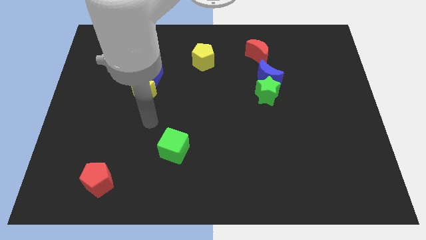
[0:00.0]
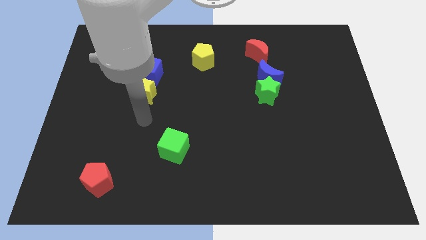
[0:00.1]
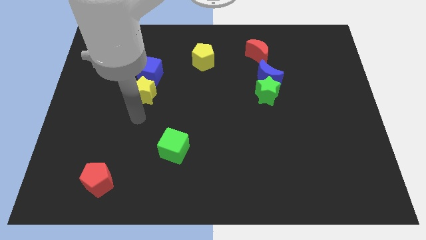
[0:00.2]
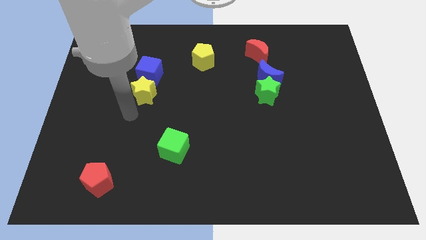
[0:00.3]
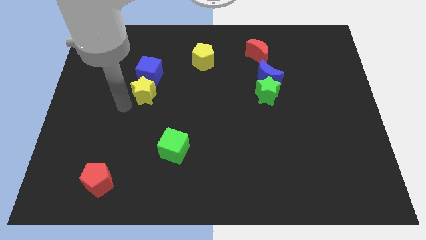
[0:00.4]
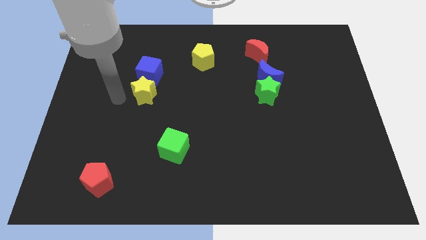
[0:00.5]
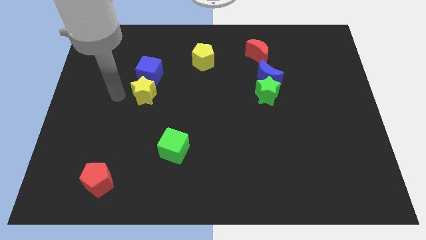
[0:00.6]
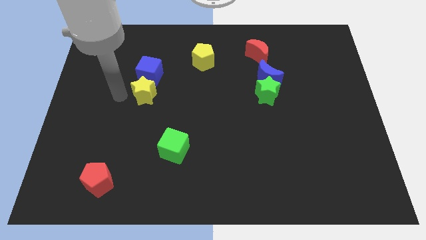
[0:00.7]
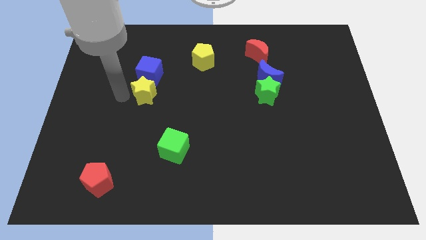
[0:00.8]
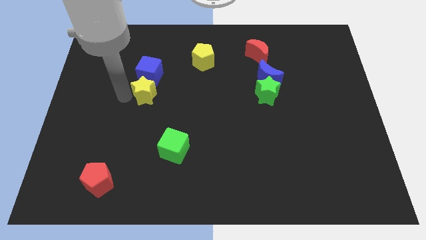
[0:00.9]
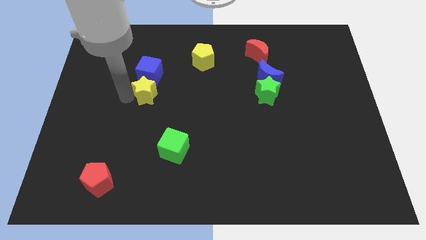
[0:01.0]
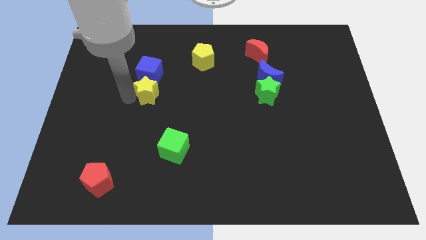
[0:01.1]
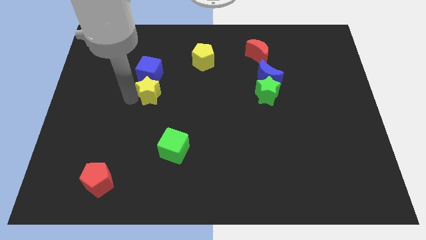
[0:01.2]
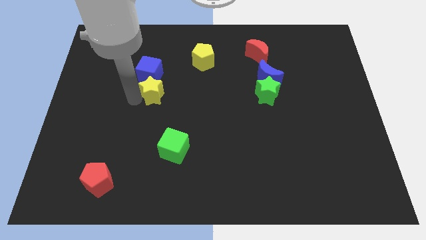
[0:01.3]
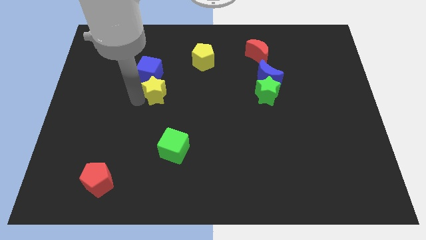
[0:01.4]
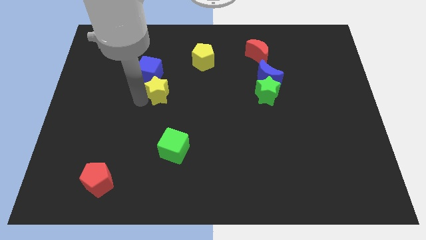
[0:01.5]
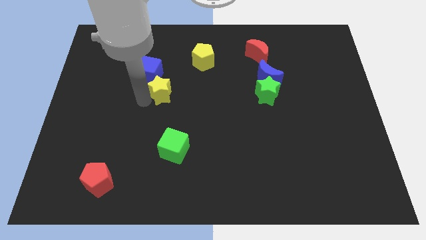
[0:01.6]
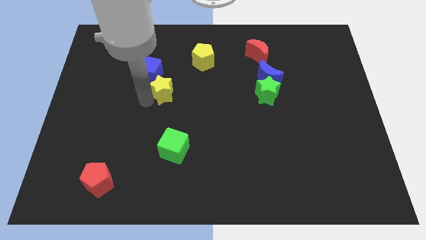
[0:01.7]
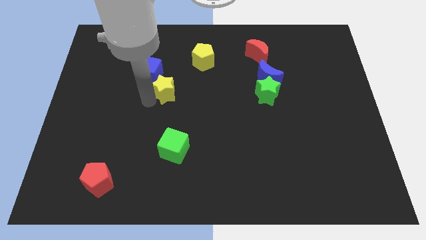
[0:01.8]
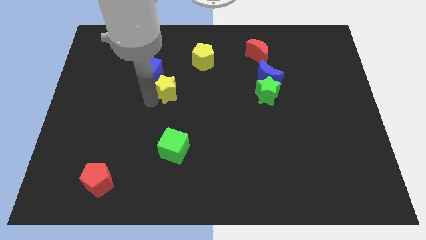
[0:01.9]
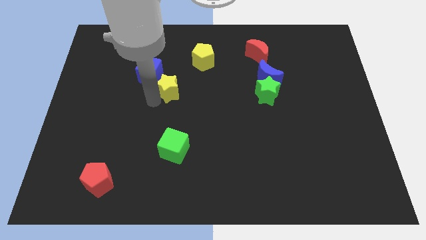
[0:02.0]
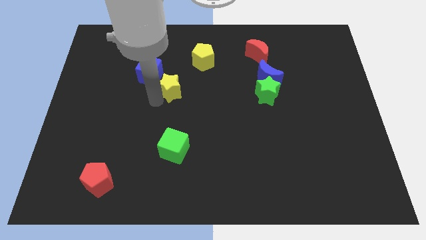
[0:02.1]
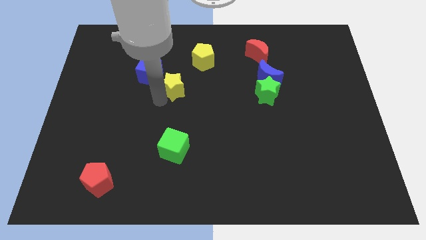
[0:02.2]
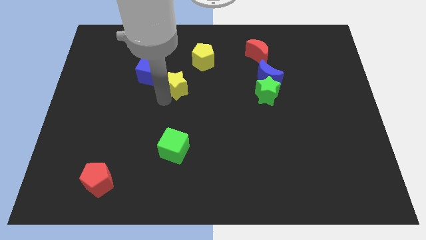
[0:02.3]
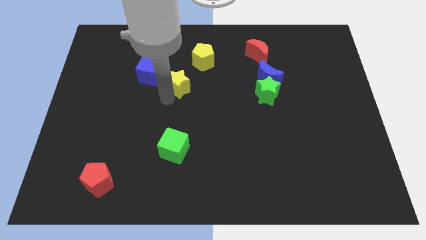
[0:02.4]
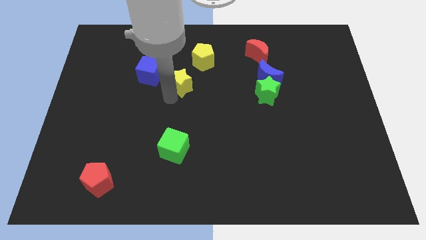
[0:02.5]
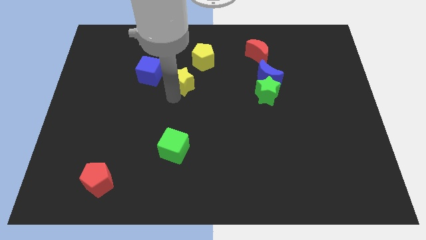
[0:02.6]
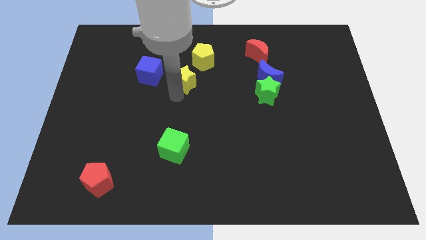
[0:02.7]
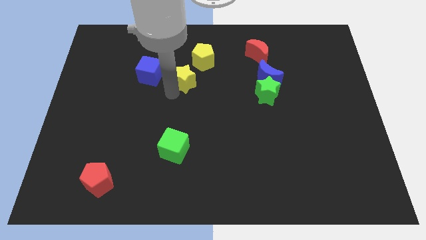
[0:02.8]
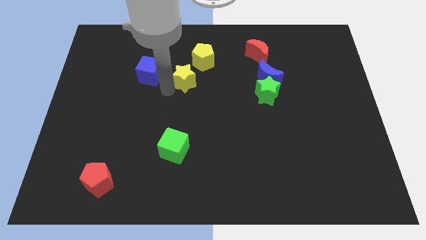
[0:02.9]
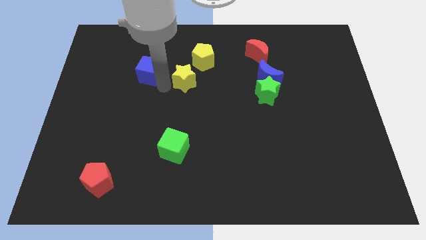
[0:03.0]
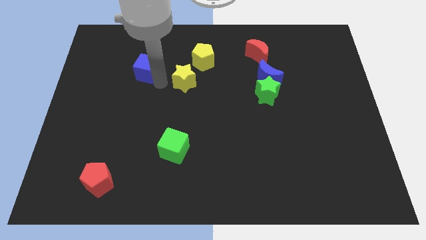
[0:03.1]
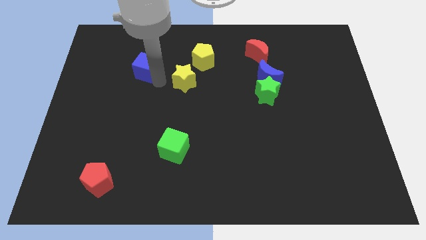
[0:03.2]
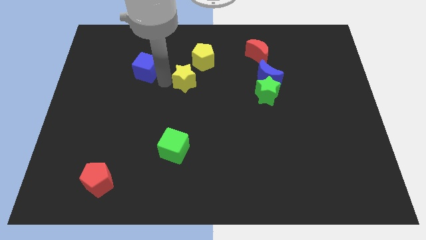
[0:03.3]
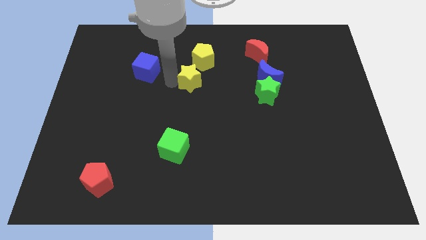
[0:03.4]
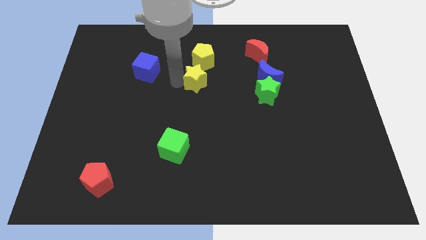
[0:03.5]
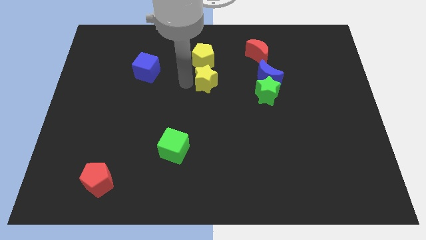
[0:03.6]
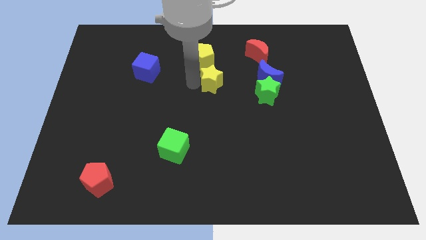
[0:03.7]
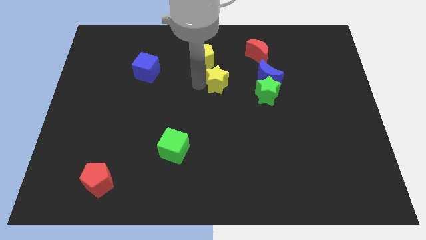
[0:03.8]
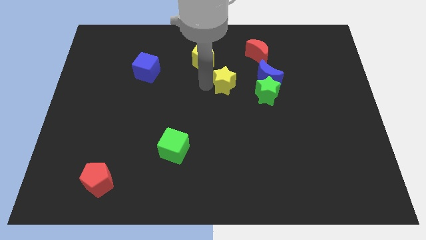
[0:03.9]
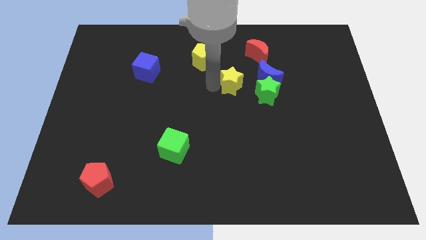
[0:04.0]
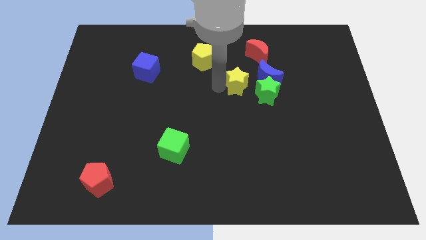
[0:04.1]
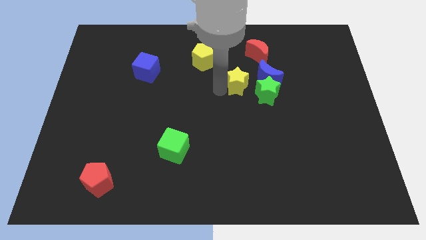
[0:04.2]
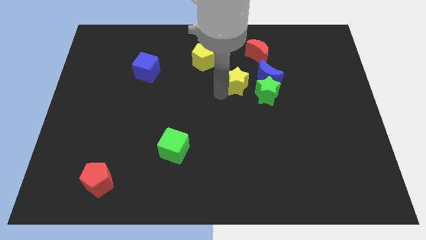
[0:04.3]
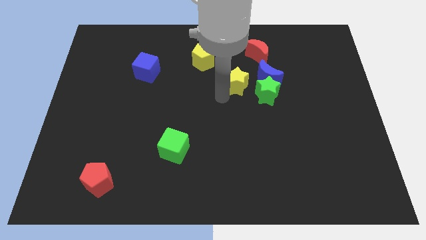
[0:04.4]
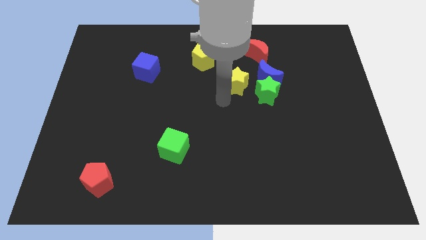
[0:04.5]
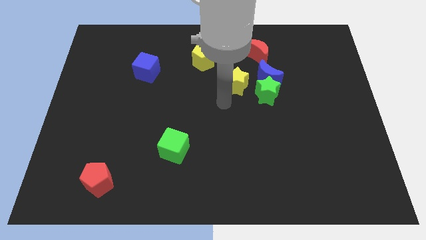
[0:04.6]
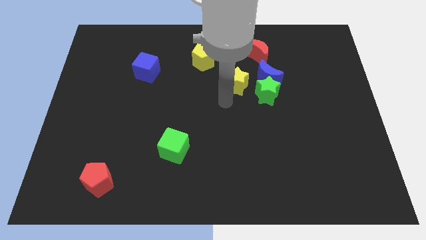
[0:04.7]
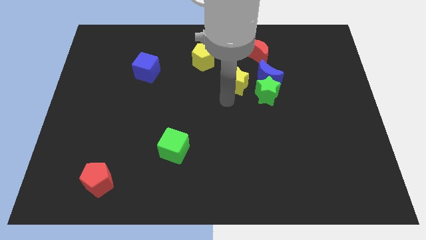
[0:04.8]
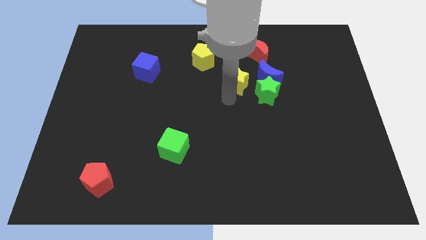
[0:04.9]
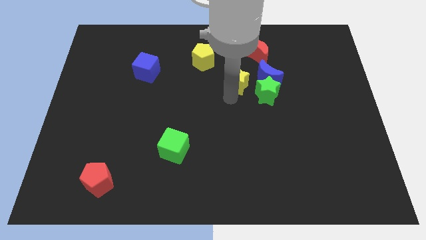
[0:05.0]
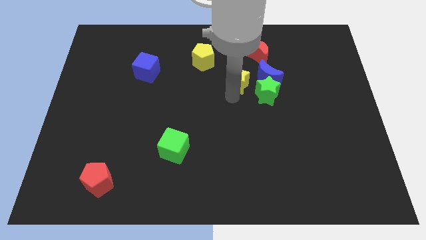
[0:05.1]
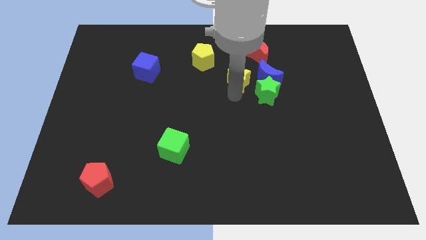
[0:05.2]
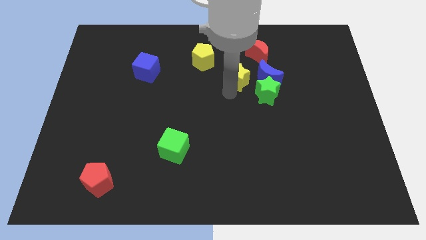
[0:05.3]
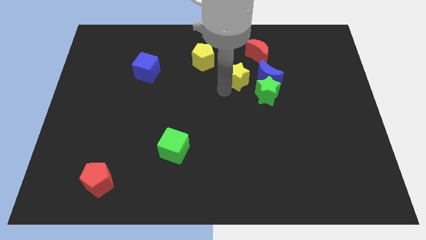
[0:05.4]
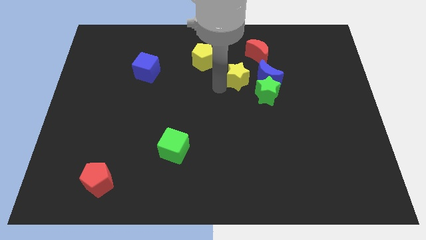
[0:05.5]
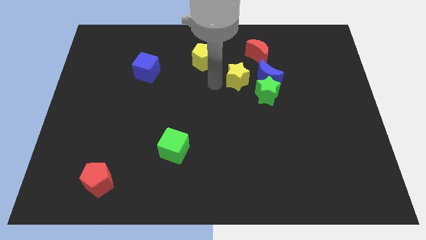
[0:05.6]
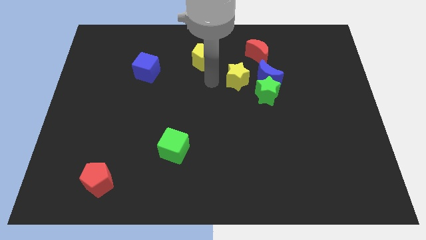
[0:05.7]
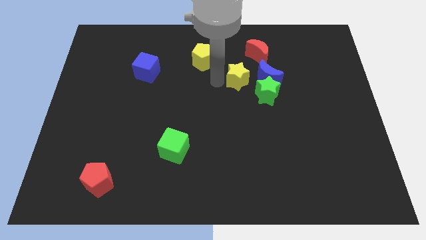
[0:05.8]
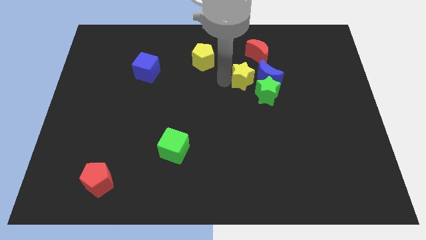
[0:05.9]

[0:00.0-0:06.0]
push the yellow star next to the blue moon

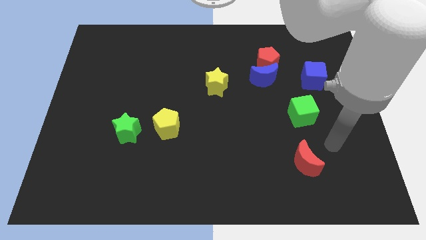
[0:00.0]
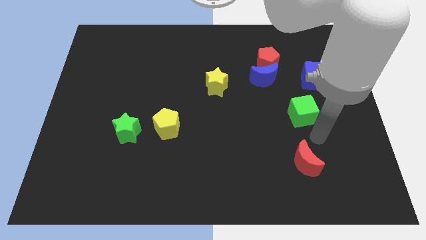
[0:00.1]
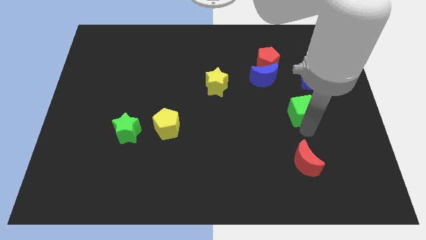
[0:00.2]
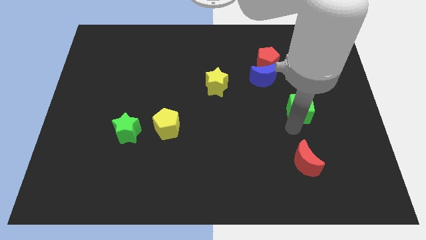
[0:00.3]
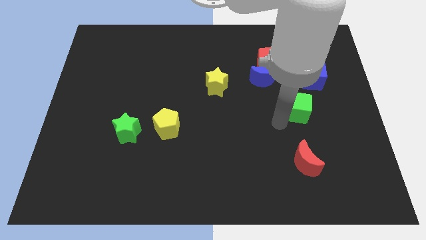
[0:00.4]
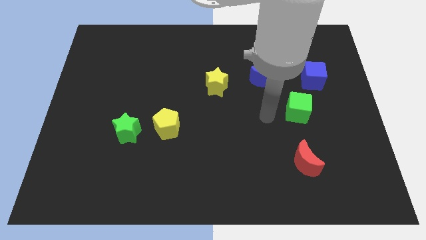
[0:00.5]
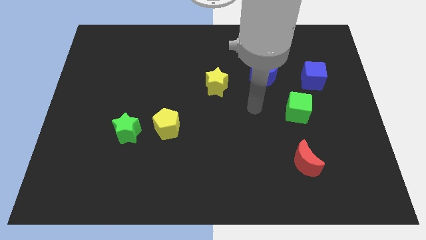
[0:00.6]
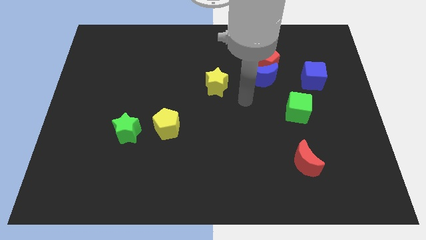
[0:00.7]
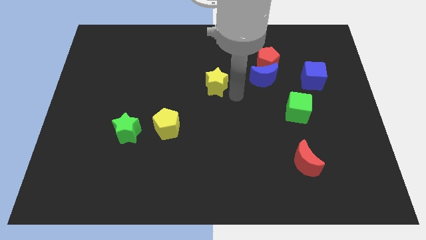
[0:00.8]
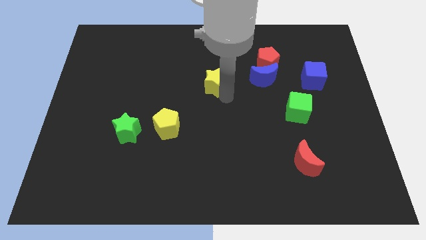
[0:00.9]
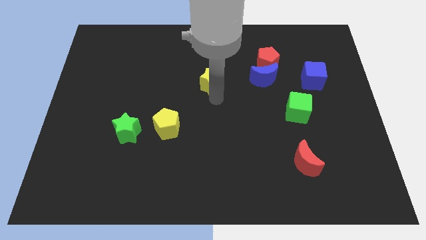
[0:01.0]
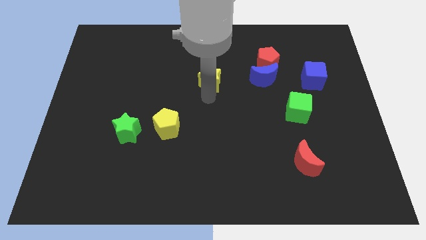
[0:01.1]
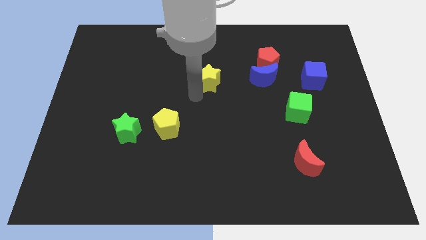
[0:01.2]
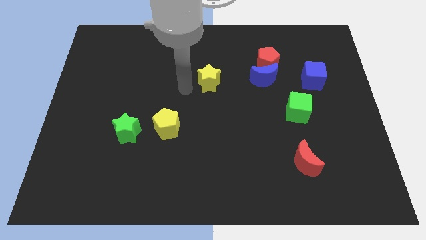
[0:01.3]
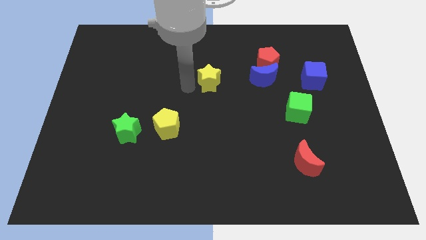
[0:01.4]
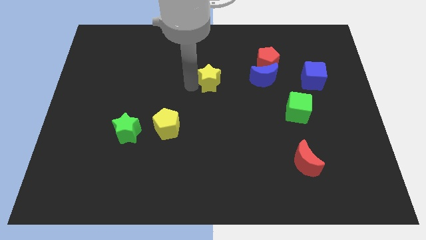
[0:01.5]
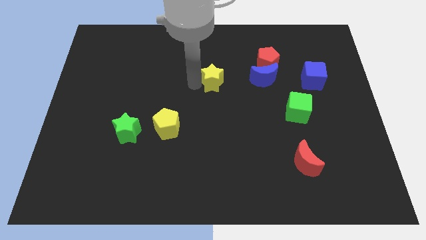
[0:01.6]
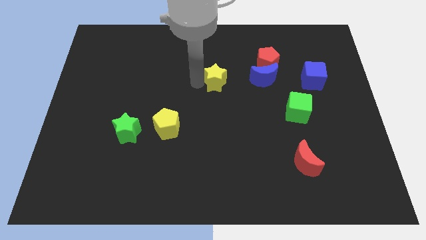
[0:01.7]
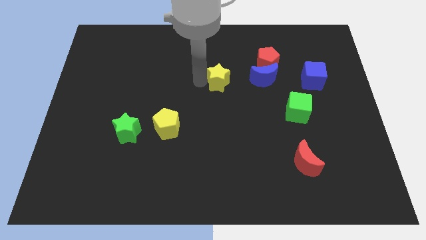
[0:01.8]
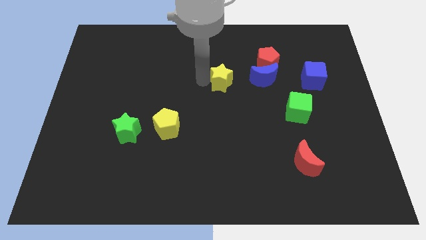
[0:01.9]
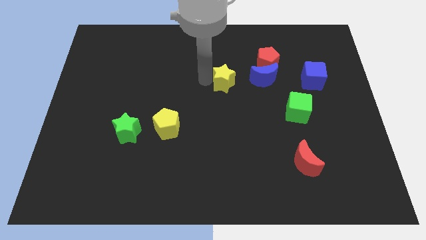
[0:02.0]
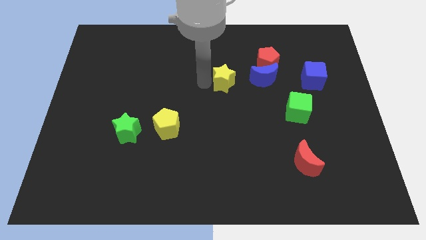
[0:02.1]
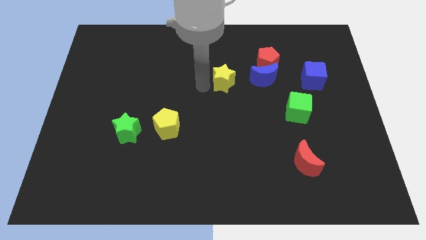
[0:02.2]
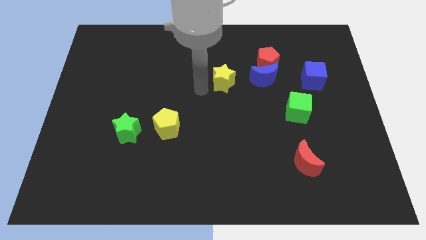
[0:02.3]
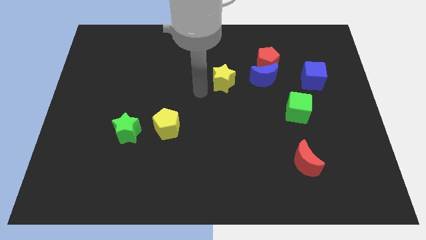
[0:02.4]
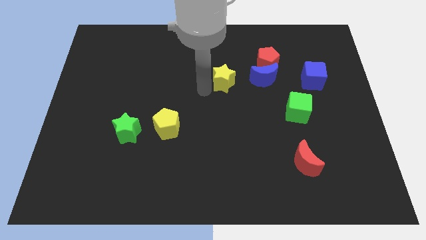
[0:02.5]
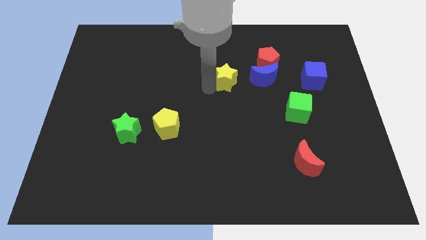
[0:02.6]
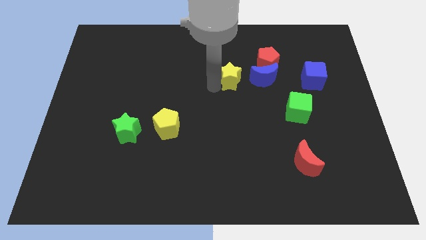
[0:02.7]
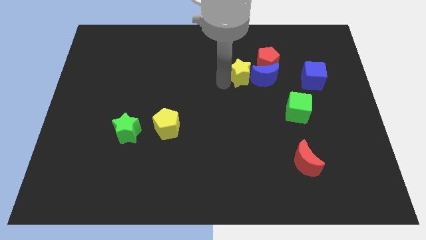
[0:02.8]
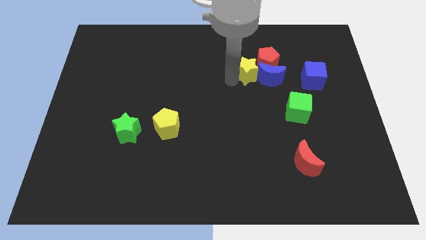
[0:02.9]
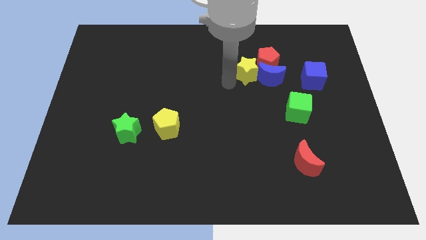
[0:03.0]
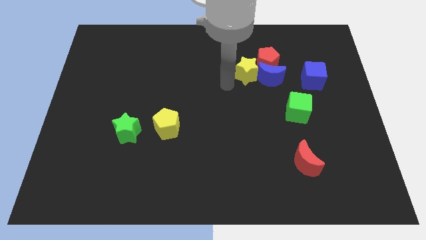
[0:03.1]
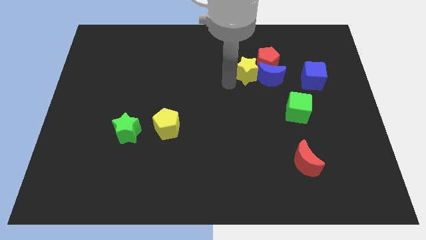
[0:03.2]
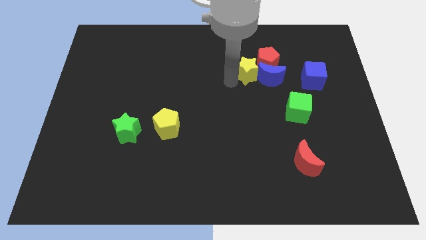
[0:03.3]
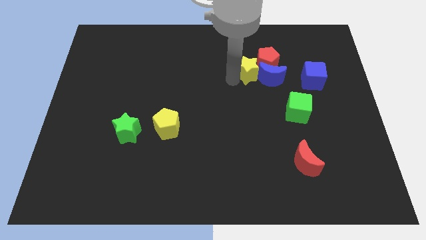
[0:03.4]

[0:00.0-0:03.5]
put the yellow star next to the red pentagon
